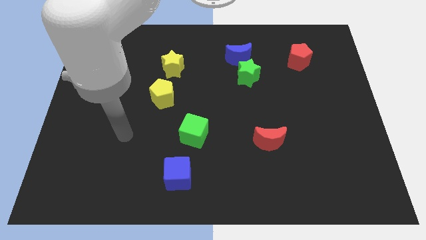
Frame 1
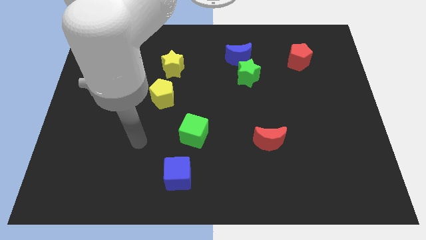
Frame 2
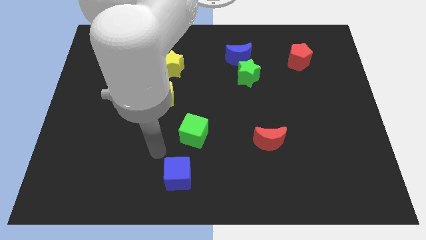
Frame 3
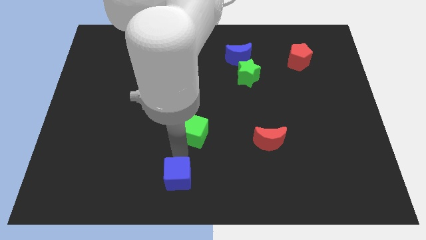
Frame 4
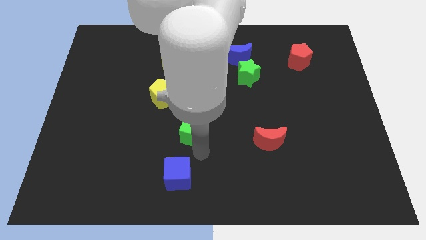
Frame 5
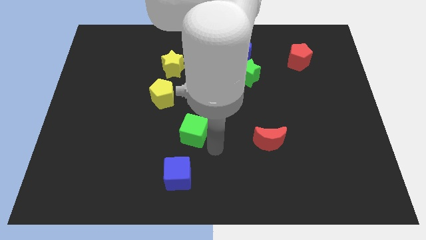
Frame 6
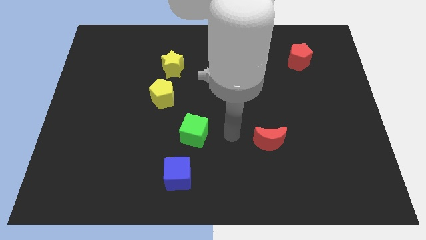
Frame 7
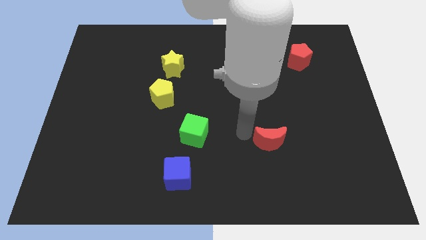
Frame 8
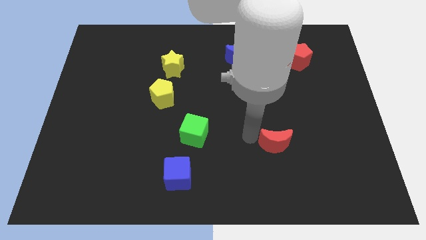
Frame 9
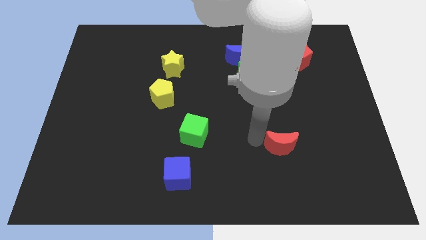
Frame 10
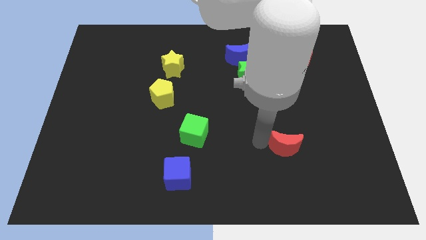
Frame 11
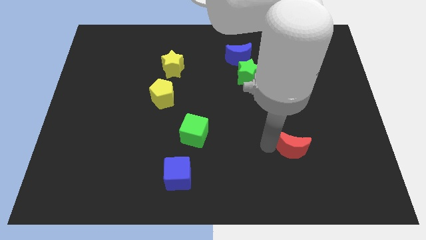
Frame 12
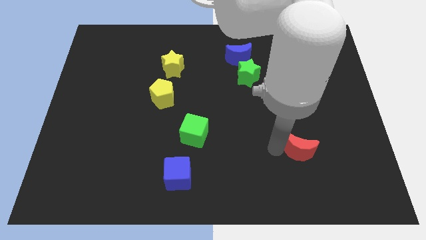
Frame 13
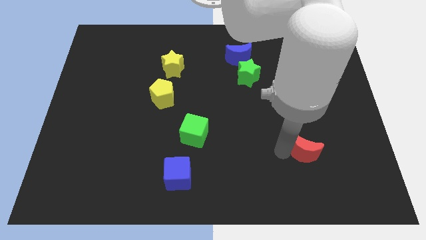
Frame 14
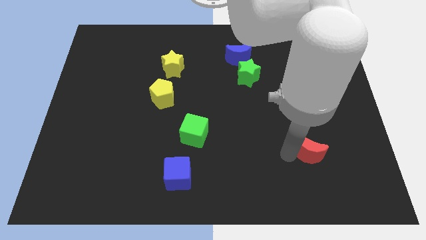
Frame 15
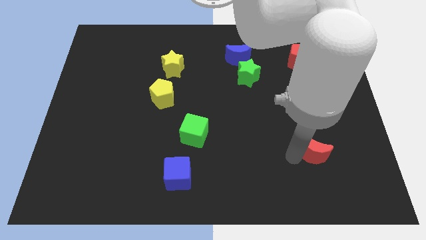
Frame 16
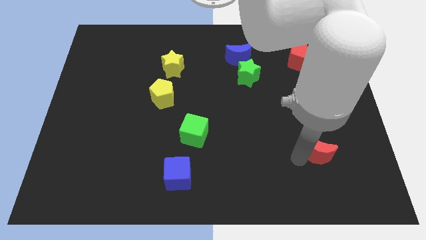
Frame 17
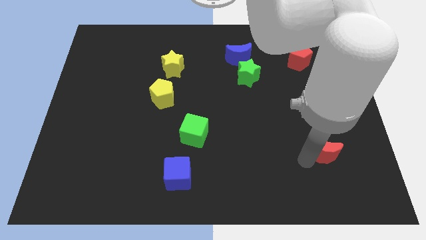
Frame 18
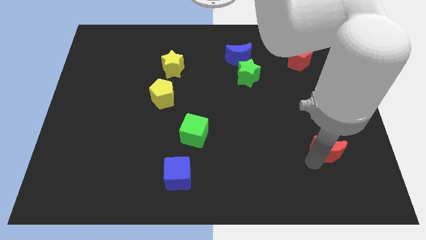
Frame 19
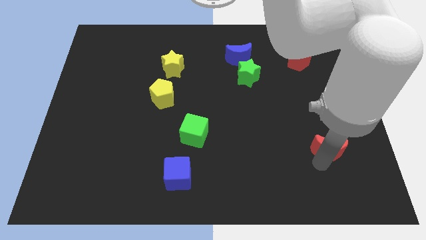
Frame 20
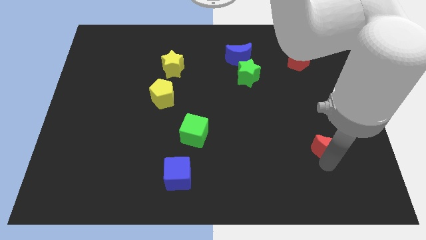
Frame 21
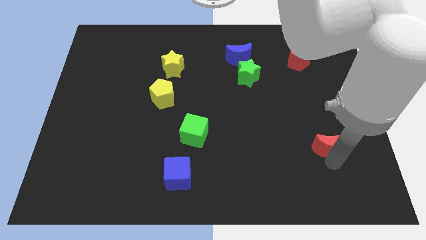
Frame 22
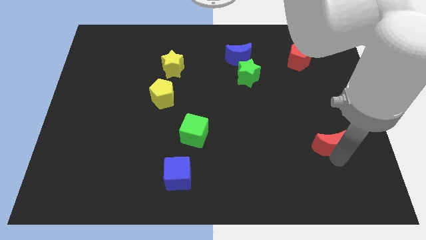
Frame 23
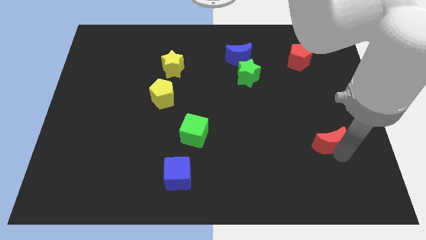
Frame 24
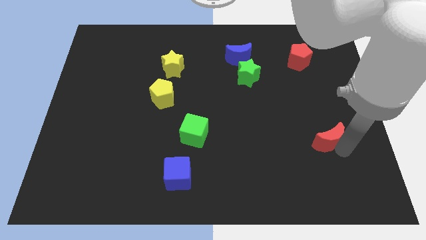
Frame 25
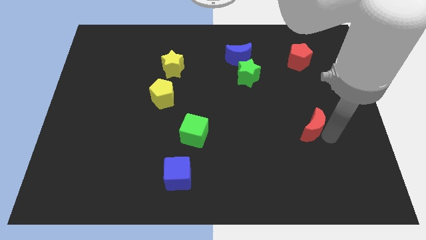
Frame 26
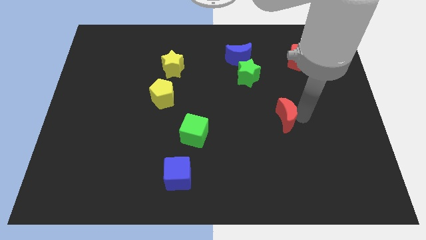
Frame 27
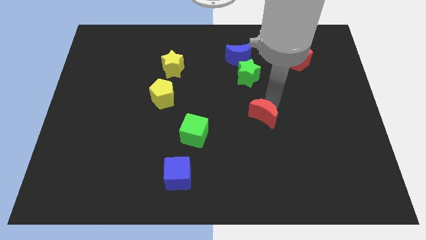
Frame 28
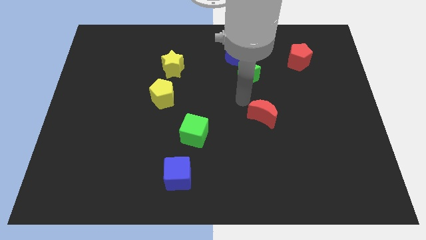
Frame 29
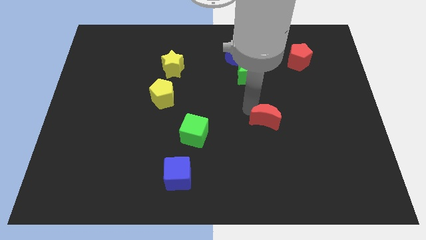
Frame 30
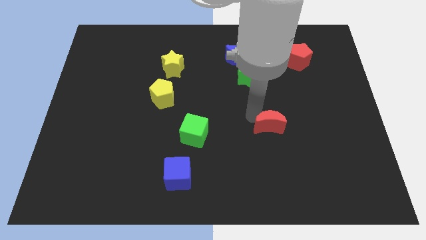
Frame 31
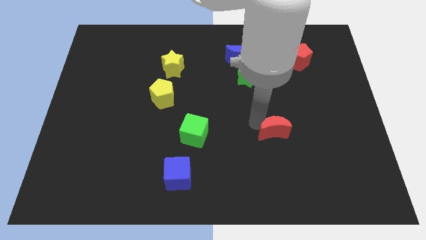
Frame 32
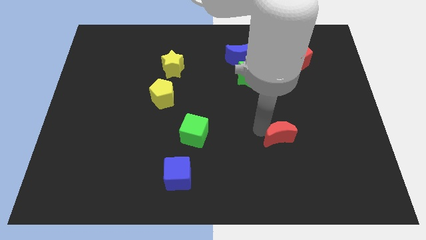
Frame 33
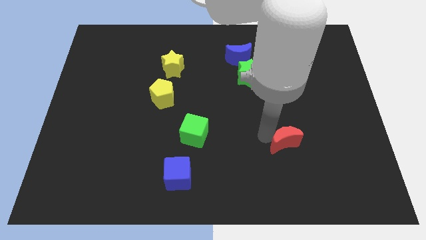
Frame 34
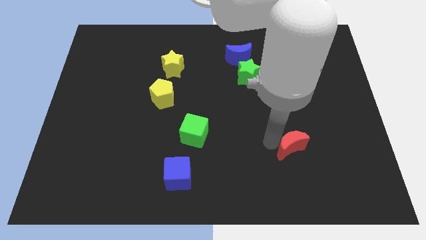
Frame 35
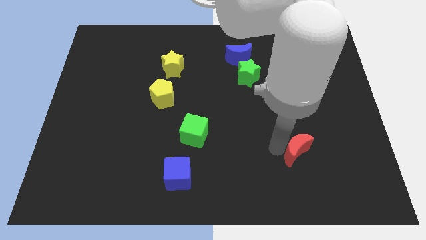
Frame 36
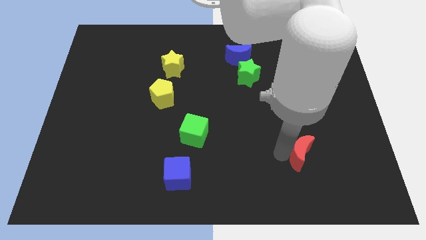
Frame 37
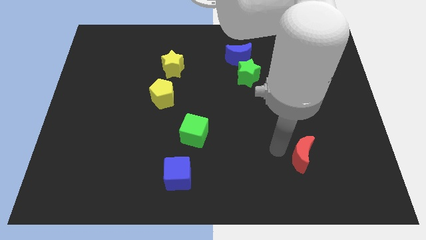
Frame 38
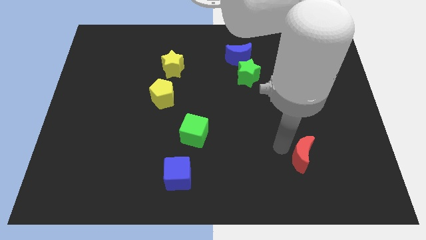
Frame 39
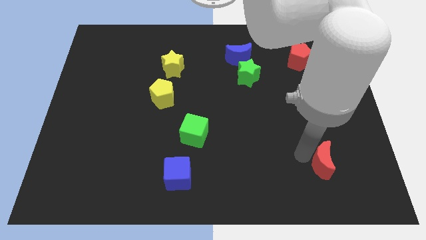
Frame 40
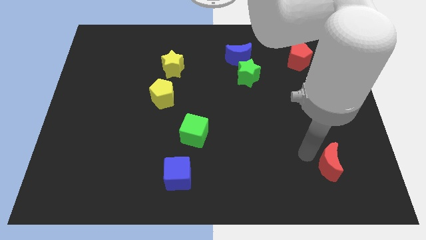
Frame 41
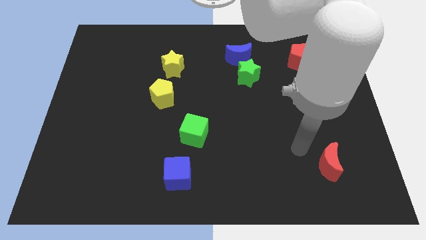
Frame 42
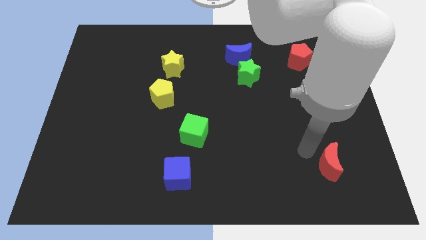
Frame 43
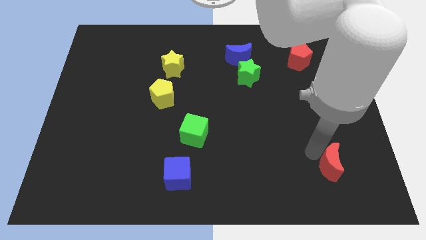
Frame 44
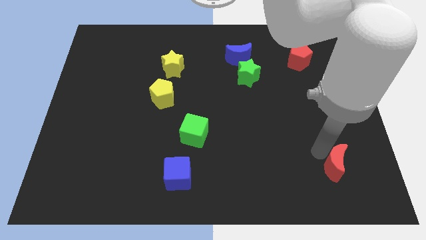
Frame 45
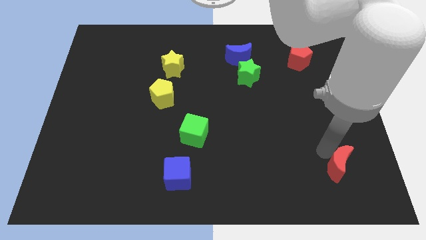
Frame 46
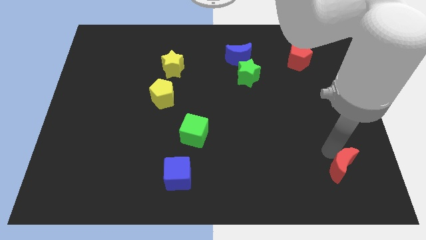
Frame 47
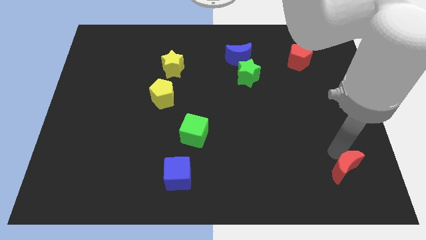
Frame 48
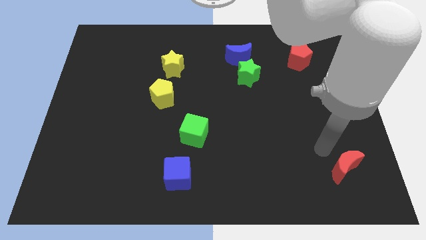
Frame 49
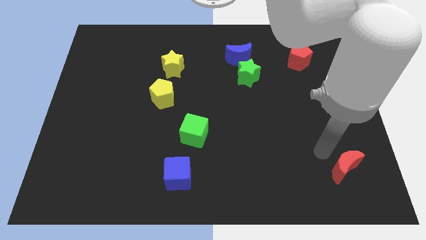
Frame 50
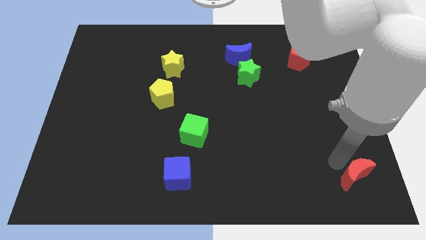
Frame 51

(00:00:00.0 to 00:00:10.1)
move the red moon to the bottom right corner

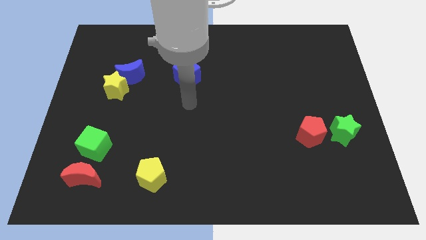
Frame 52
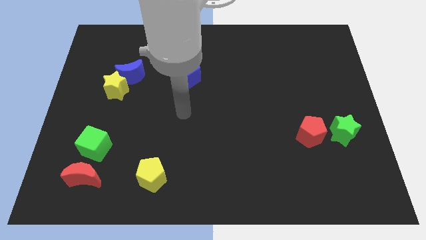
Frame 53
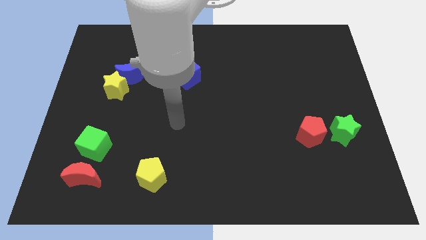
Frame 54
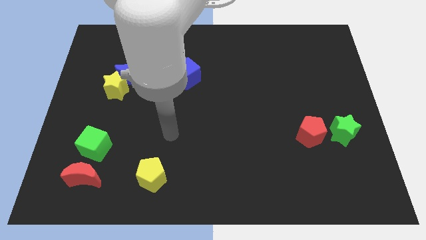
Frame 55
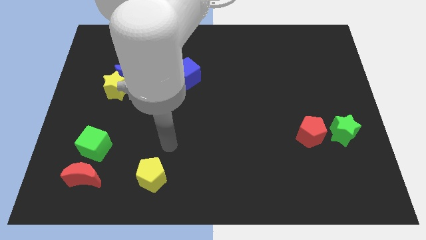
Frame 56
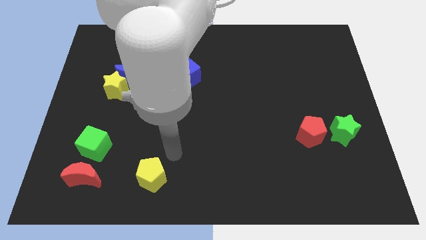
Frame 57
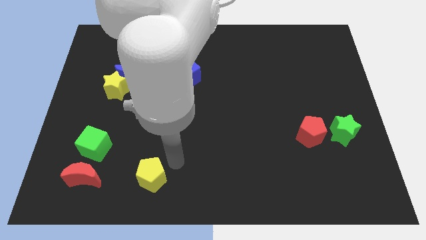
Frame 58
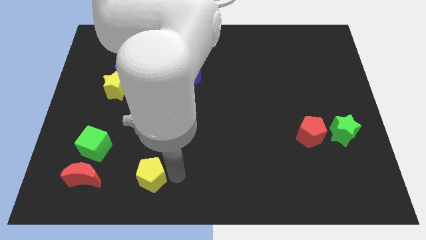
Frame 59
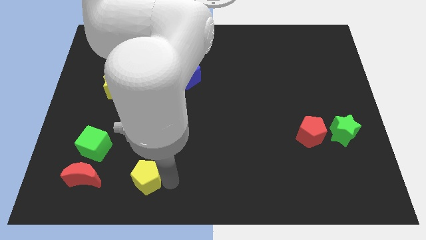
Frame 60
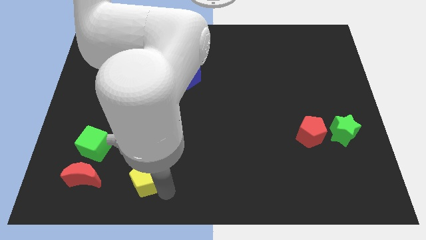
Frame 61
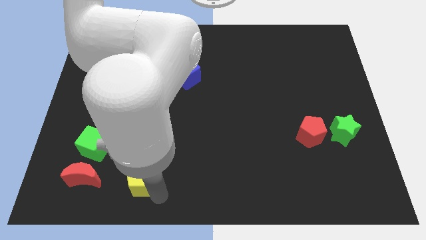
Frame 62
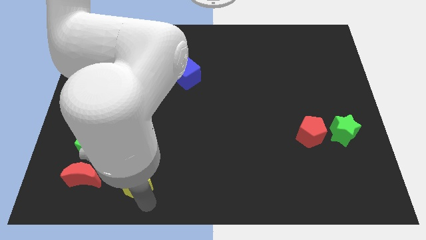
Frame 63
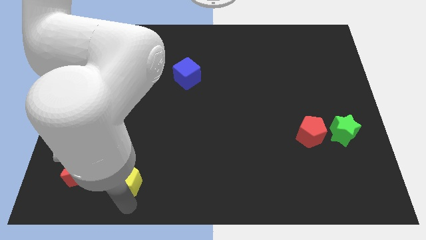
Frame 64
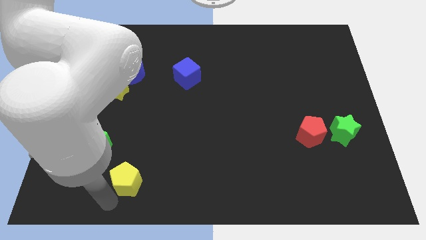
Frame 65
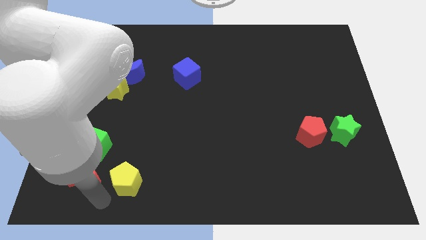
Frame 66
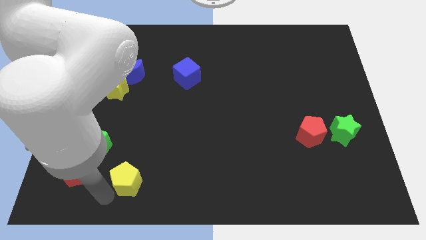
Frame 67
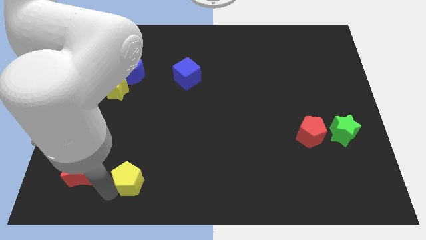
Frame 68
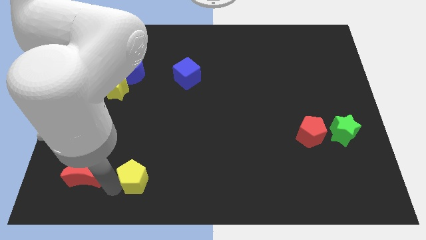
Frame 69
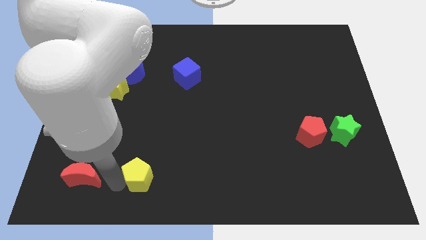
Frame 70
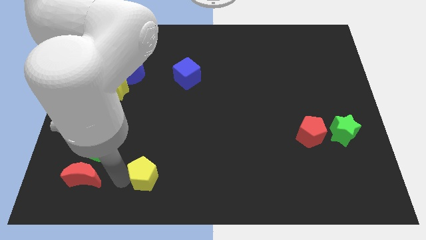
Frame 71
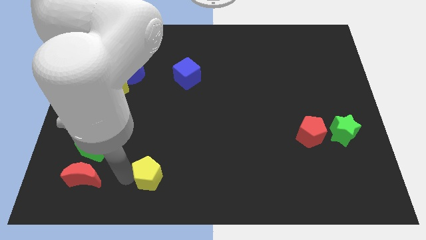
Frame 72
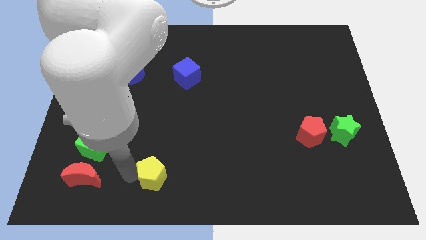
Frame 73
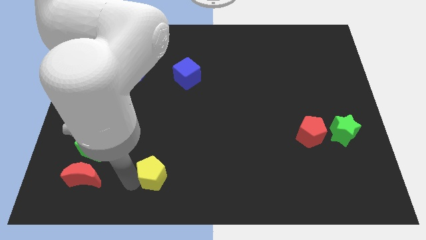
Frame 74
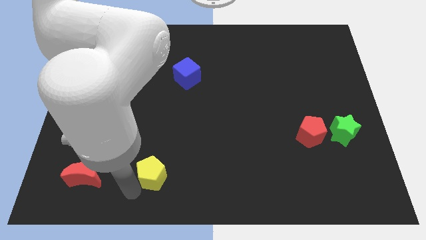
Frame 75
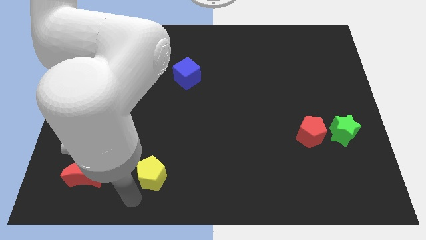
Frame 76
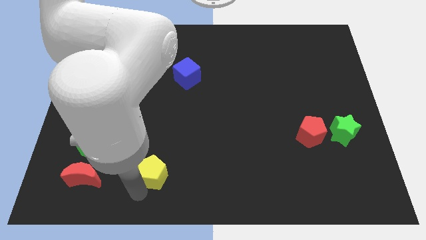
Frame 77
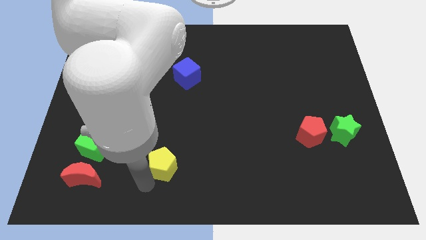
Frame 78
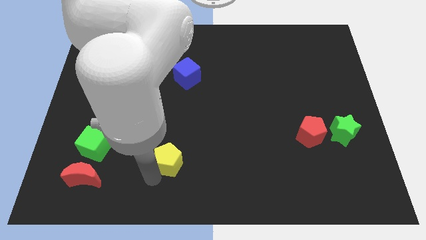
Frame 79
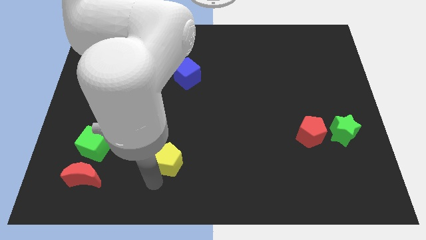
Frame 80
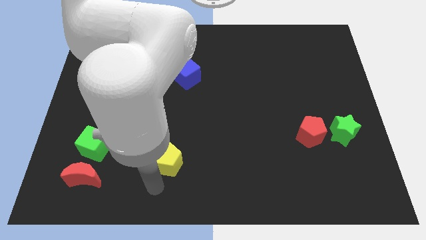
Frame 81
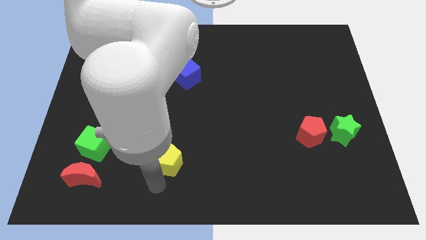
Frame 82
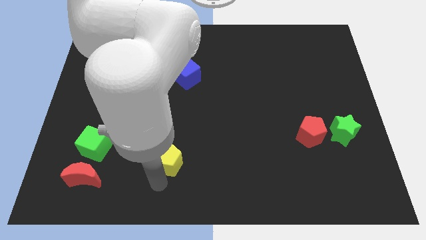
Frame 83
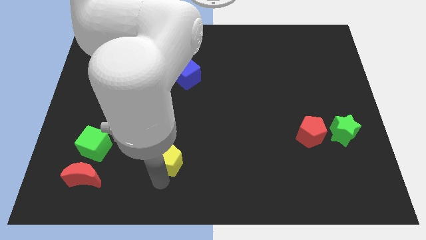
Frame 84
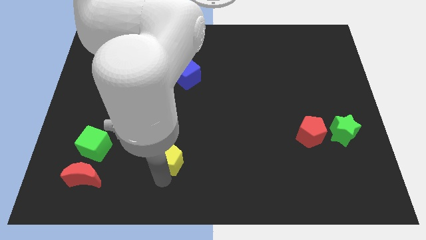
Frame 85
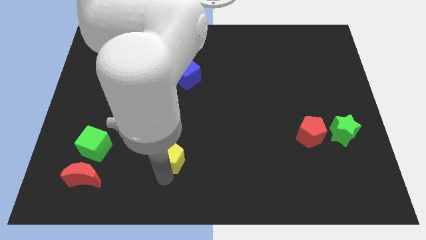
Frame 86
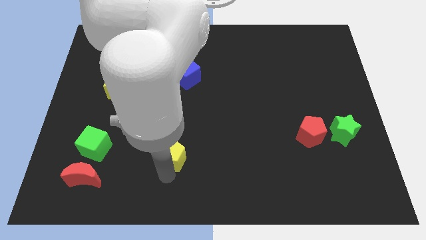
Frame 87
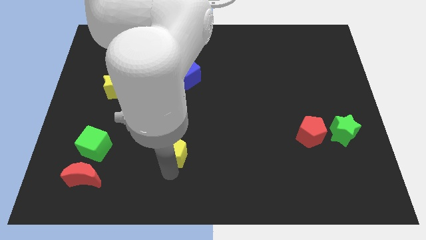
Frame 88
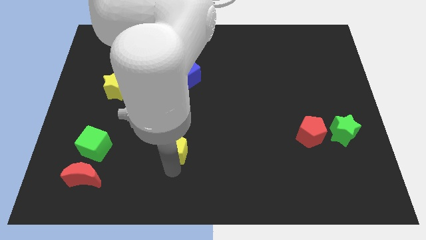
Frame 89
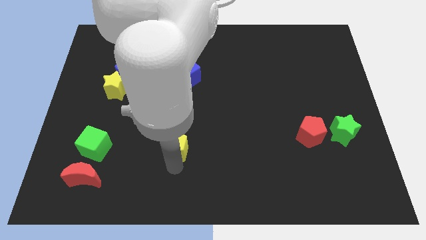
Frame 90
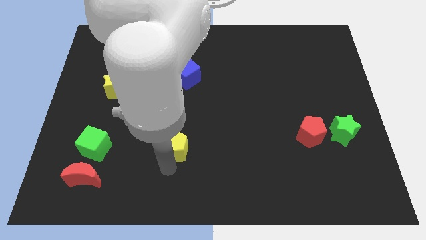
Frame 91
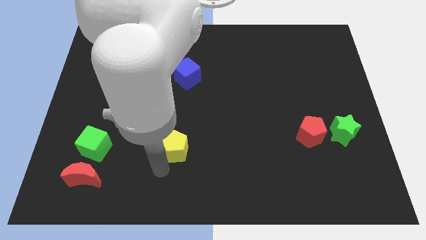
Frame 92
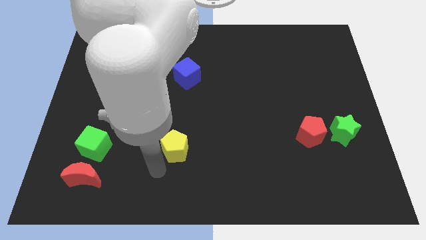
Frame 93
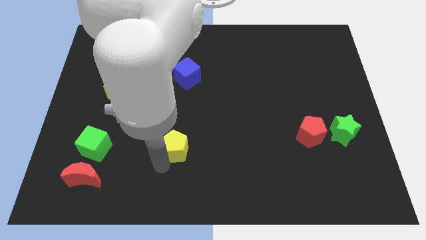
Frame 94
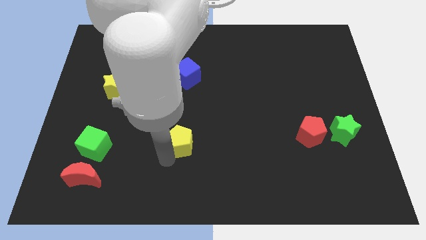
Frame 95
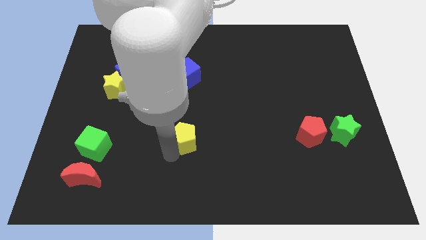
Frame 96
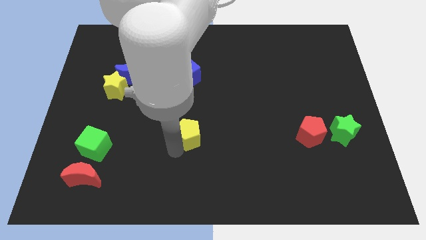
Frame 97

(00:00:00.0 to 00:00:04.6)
put the yellow pentagon to the middle
